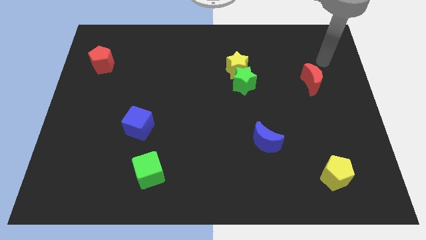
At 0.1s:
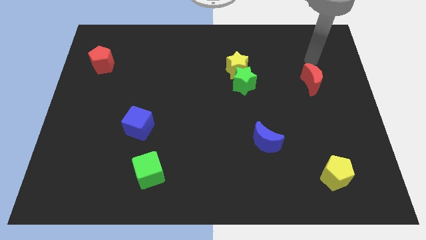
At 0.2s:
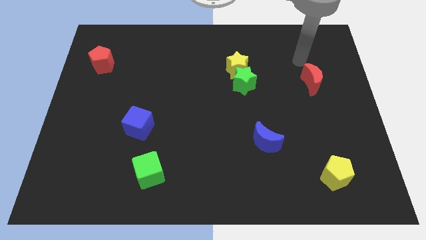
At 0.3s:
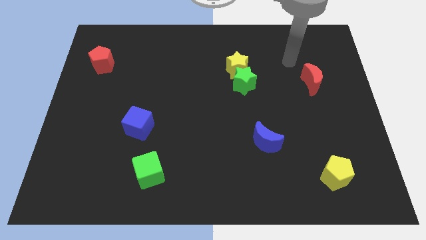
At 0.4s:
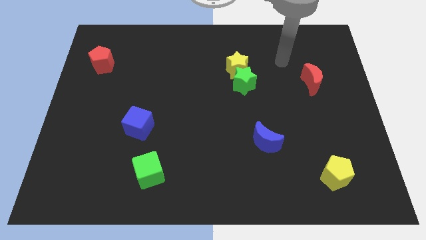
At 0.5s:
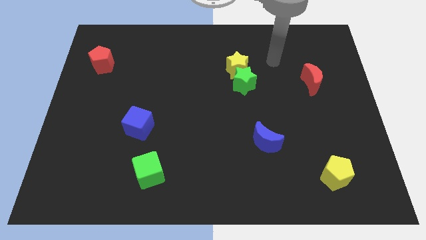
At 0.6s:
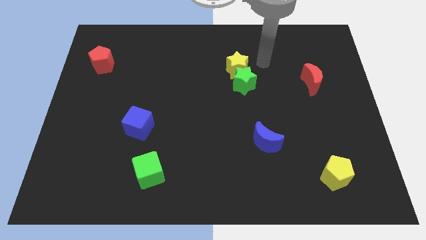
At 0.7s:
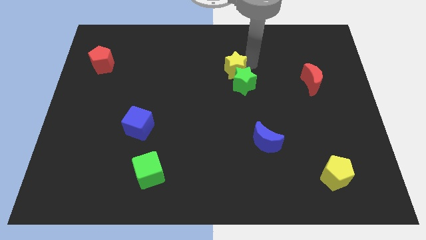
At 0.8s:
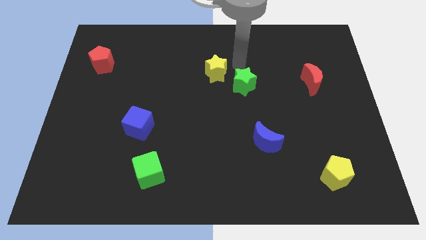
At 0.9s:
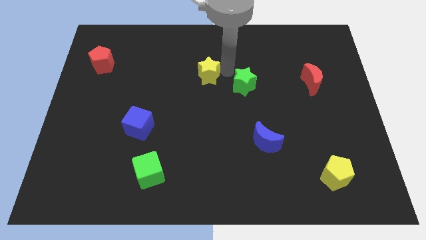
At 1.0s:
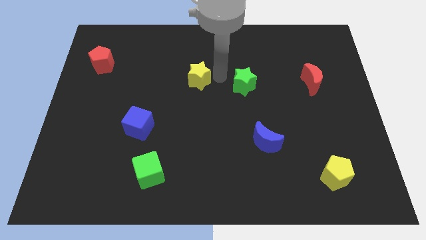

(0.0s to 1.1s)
pull the green star apart from the yellow star

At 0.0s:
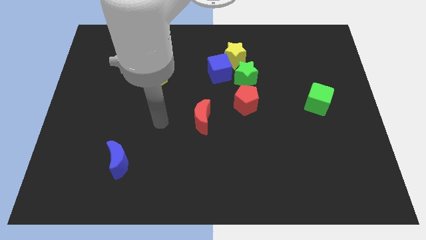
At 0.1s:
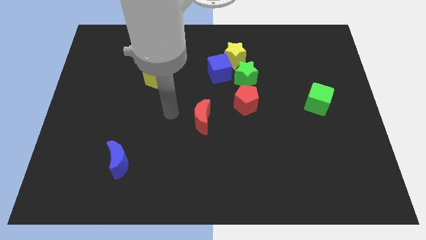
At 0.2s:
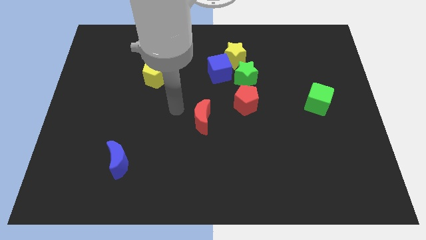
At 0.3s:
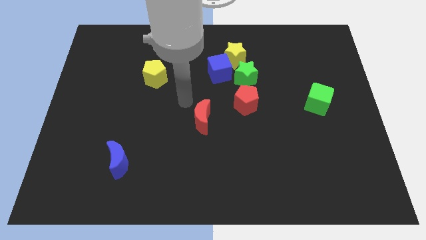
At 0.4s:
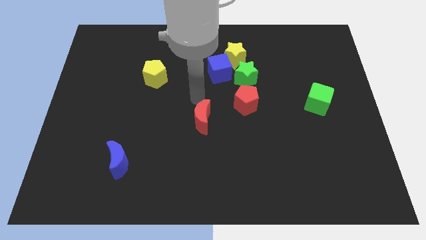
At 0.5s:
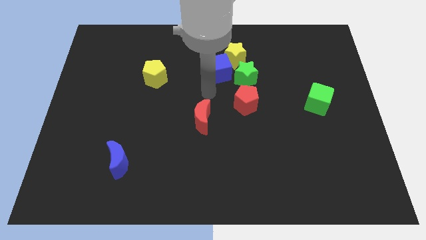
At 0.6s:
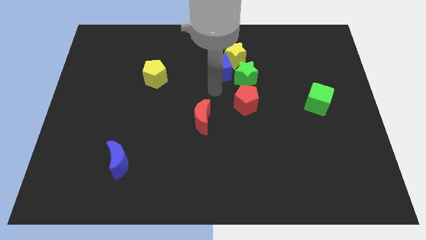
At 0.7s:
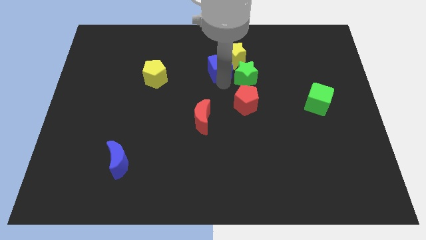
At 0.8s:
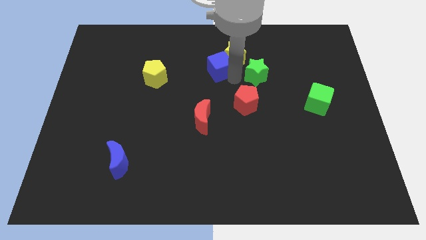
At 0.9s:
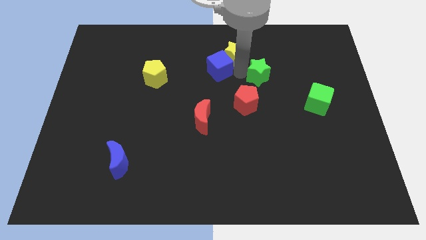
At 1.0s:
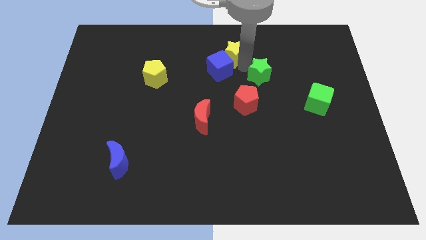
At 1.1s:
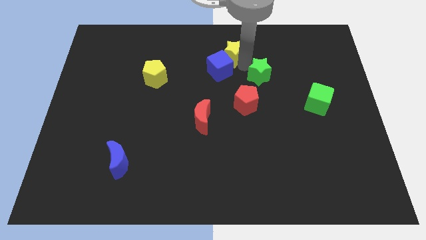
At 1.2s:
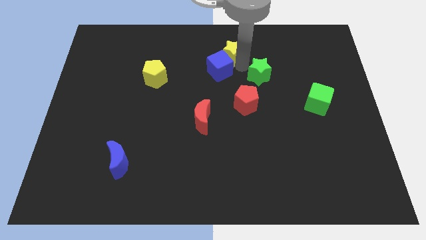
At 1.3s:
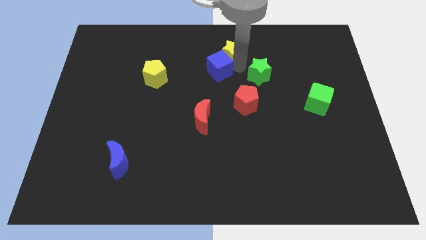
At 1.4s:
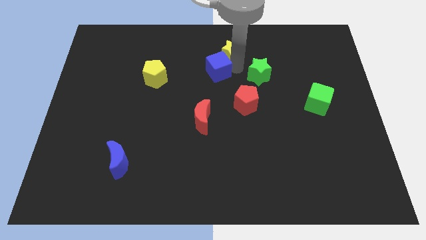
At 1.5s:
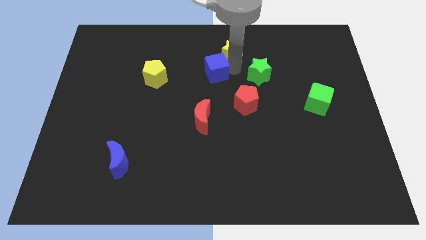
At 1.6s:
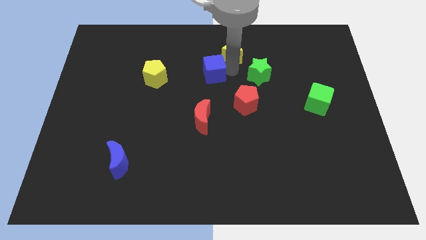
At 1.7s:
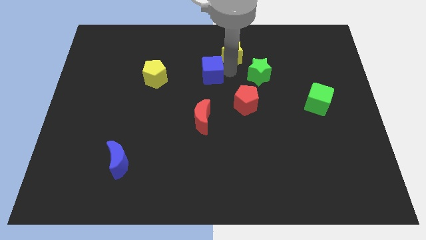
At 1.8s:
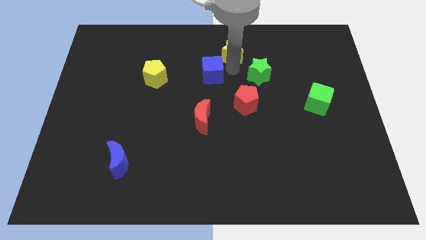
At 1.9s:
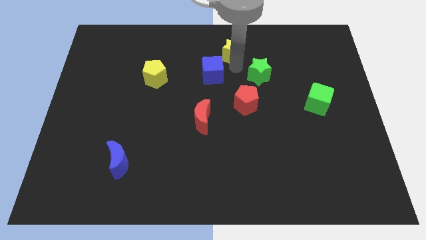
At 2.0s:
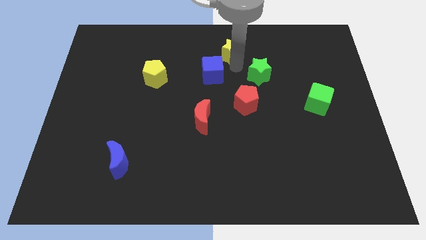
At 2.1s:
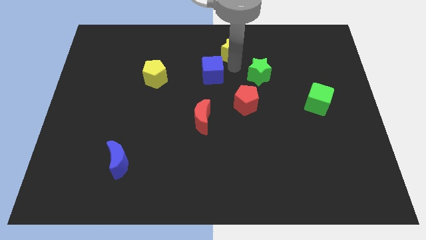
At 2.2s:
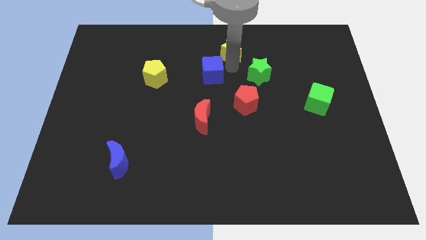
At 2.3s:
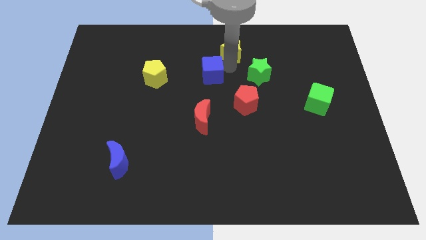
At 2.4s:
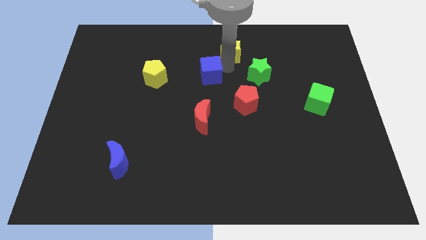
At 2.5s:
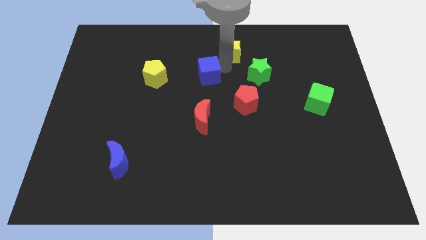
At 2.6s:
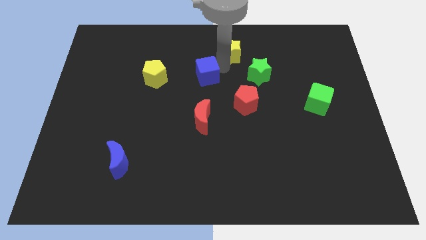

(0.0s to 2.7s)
pull the blue cube apart from the yellow star and green star

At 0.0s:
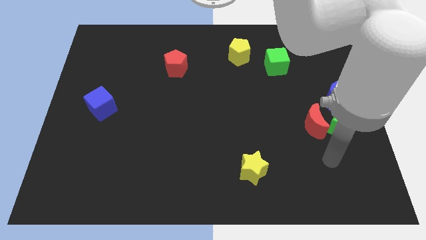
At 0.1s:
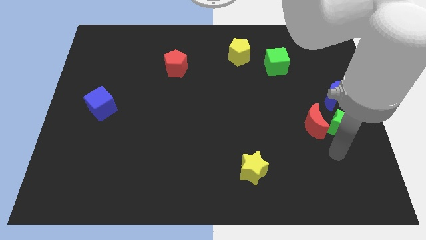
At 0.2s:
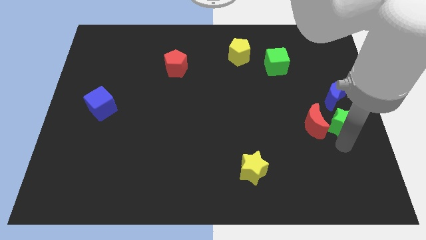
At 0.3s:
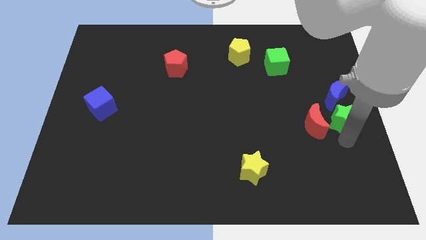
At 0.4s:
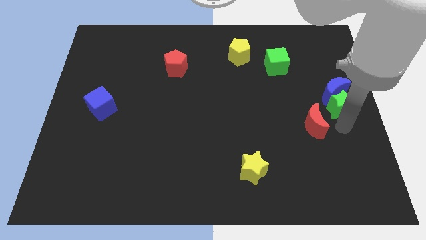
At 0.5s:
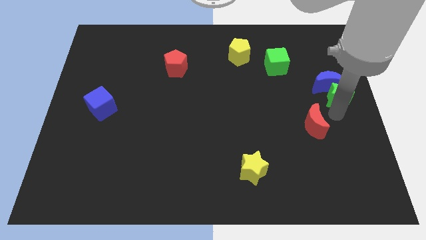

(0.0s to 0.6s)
pull the red moon apart from the green star

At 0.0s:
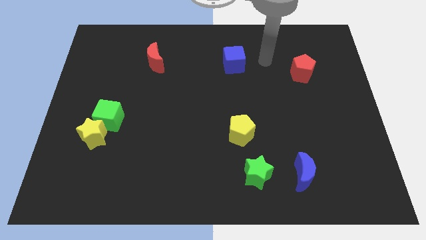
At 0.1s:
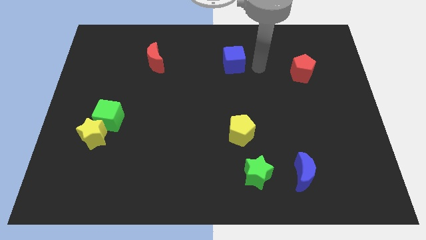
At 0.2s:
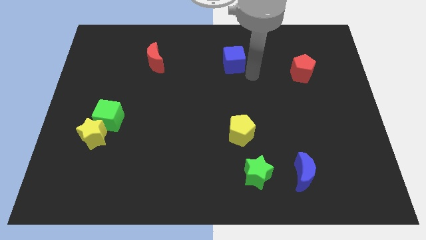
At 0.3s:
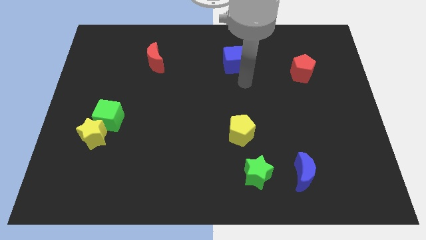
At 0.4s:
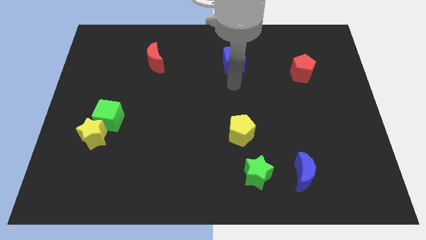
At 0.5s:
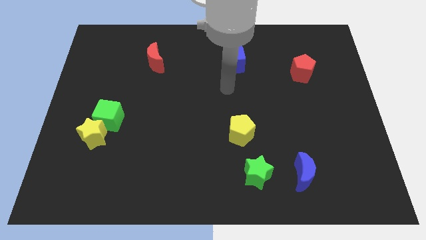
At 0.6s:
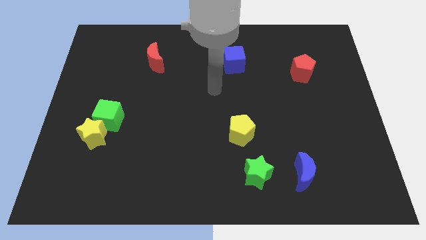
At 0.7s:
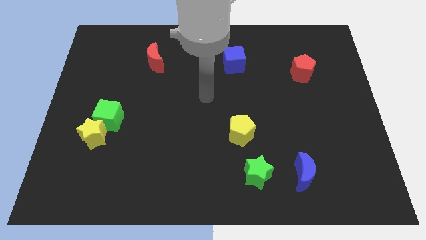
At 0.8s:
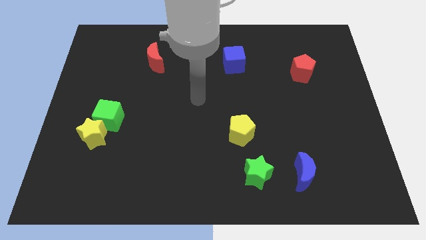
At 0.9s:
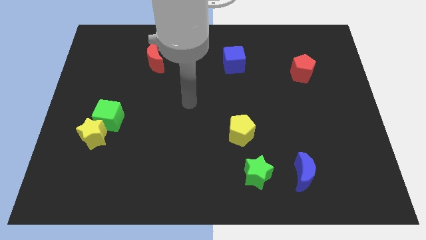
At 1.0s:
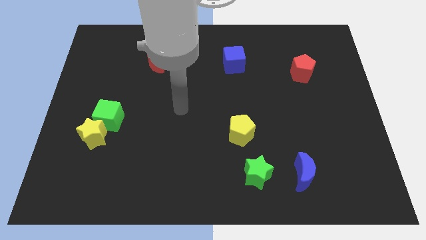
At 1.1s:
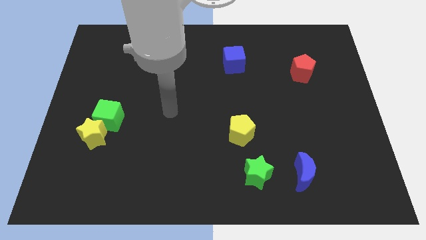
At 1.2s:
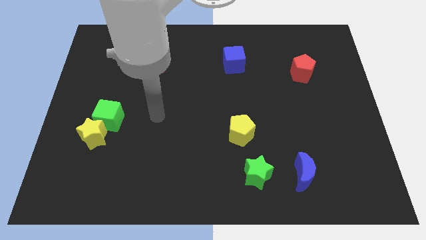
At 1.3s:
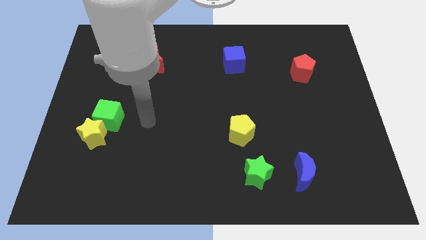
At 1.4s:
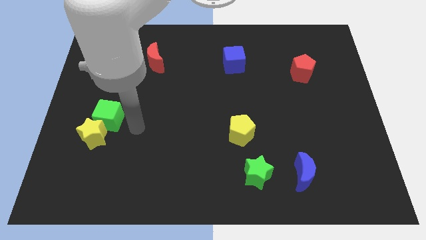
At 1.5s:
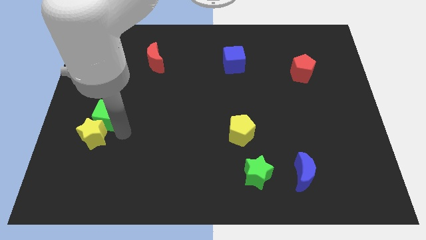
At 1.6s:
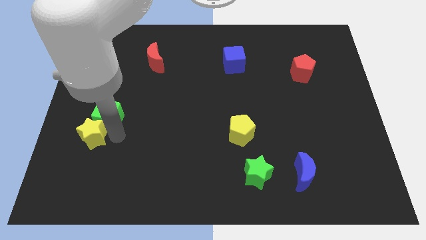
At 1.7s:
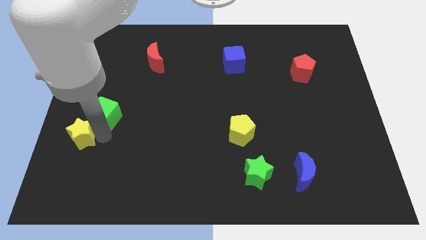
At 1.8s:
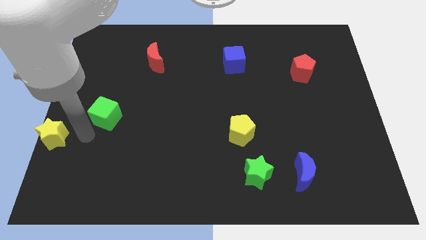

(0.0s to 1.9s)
separate the green cube from the yellow star

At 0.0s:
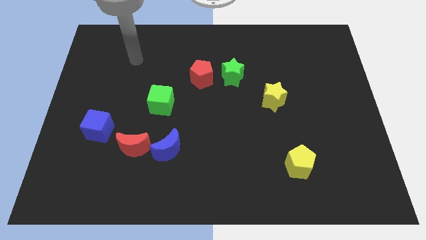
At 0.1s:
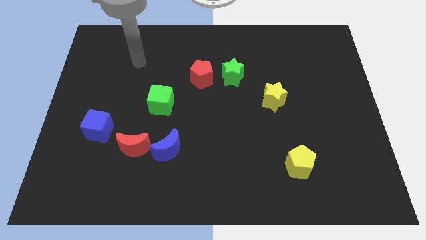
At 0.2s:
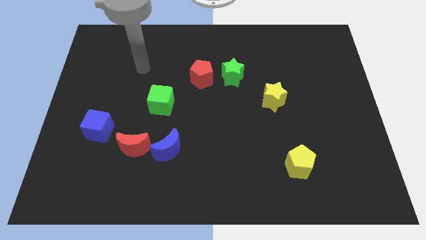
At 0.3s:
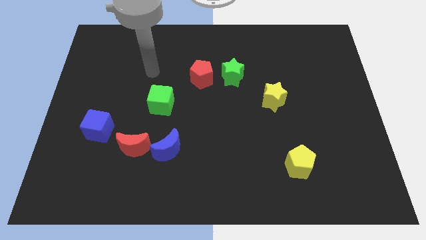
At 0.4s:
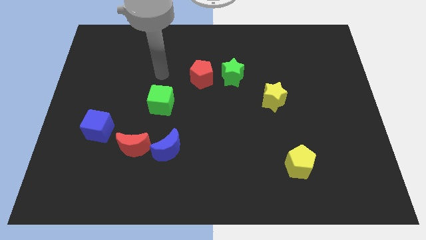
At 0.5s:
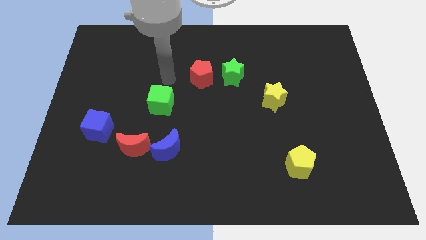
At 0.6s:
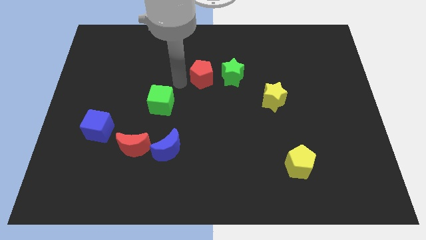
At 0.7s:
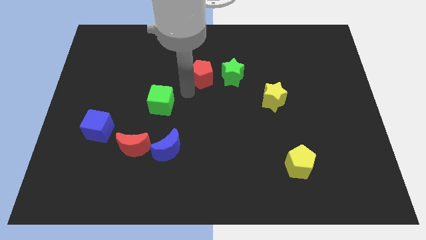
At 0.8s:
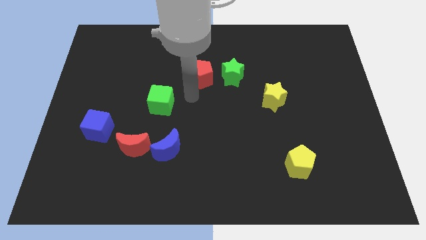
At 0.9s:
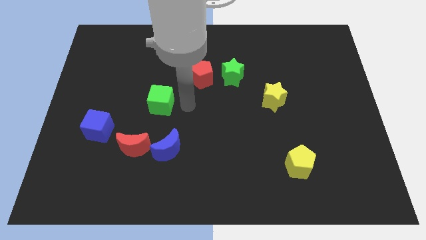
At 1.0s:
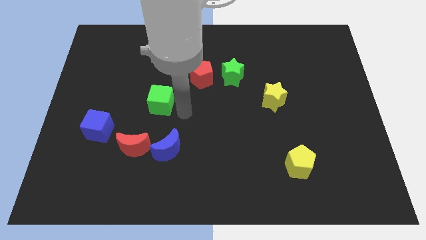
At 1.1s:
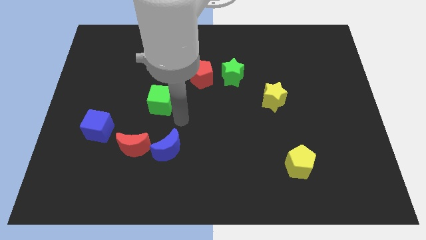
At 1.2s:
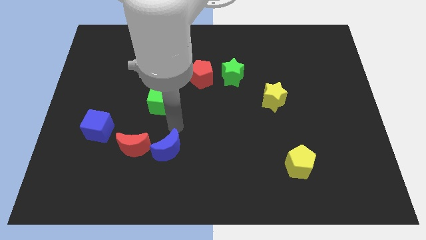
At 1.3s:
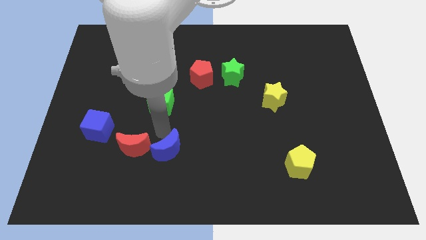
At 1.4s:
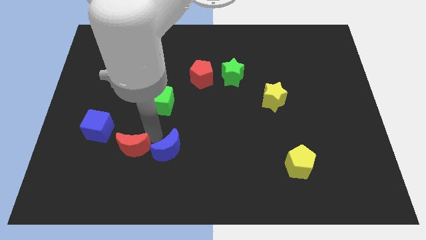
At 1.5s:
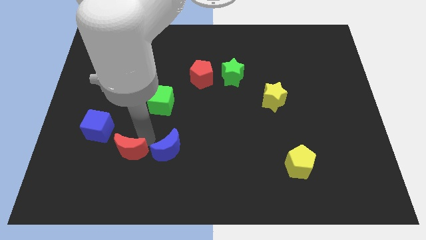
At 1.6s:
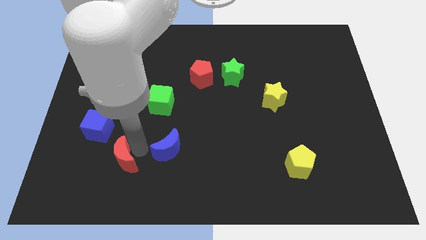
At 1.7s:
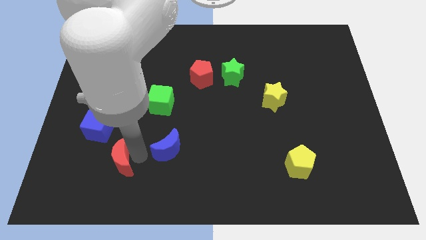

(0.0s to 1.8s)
pull the blue moon apart from the red moon

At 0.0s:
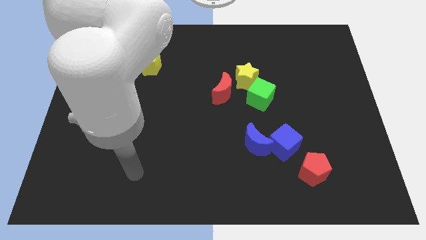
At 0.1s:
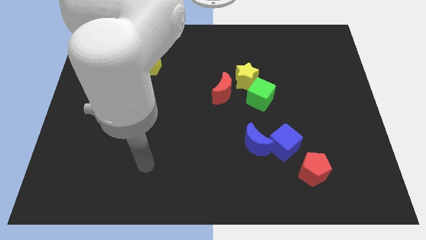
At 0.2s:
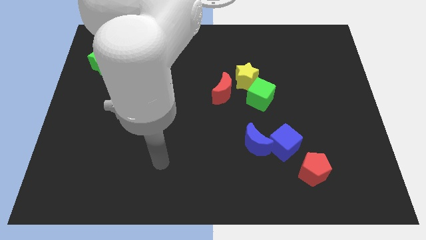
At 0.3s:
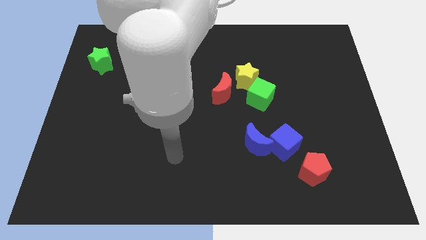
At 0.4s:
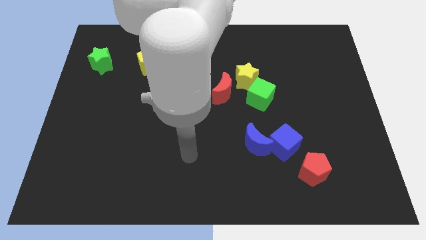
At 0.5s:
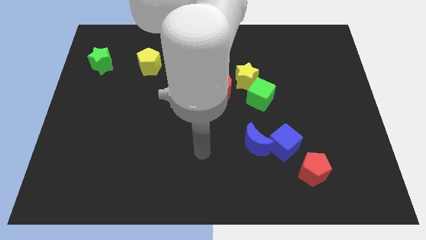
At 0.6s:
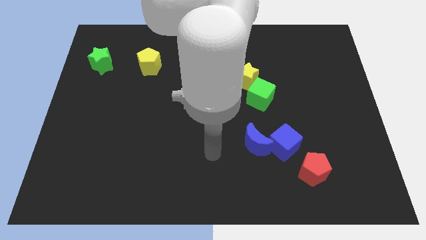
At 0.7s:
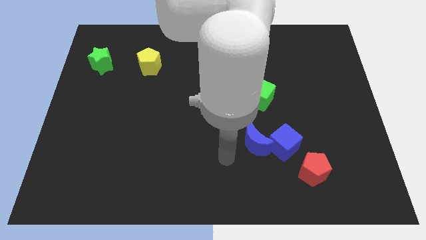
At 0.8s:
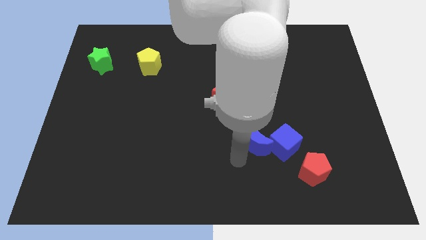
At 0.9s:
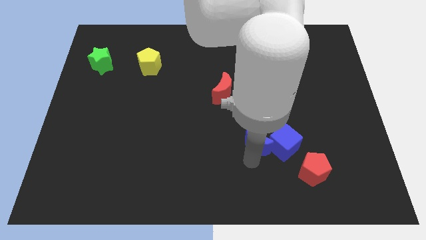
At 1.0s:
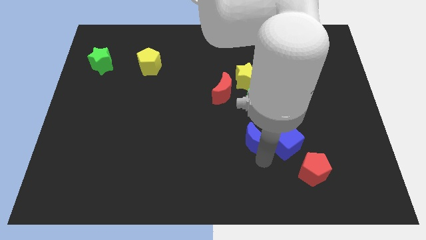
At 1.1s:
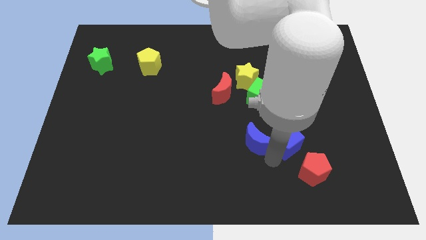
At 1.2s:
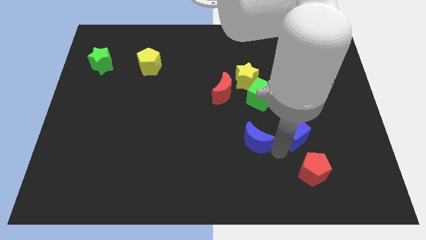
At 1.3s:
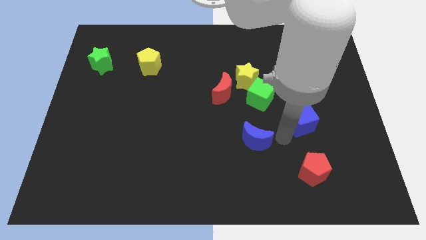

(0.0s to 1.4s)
pull the blue moon apart from the blue cube
